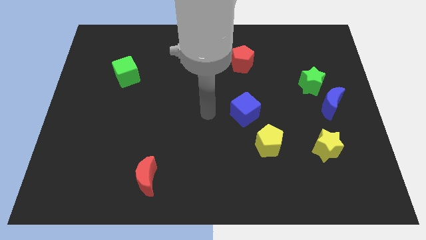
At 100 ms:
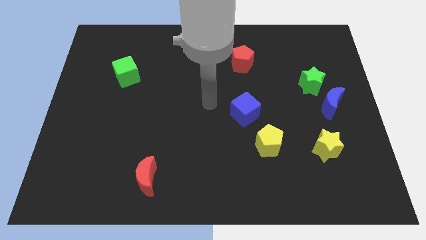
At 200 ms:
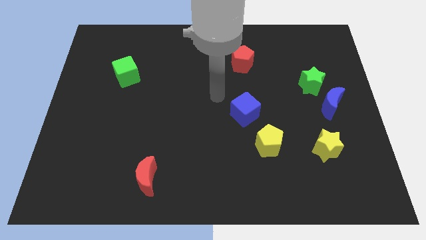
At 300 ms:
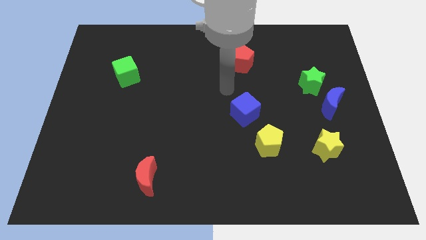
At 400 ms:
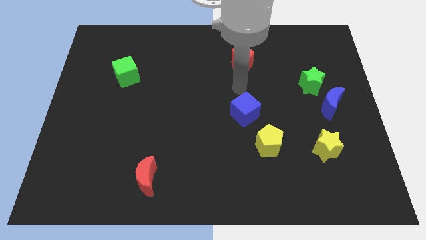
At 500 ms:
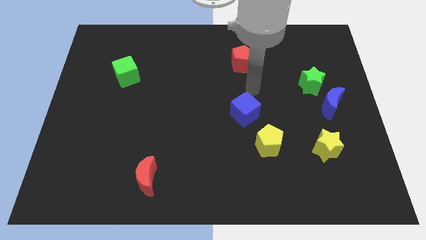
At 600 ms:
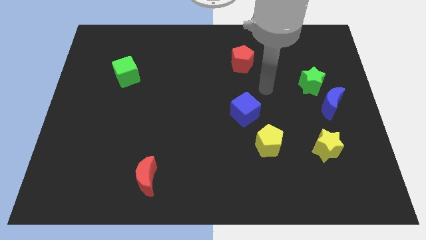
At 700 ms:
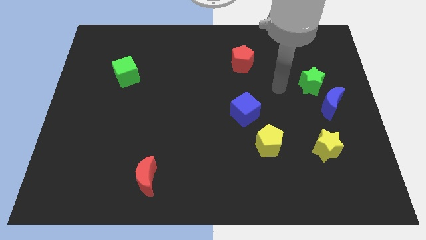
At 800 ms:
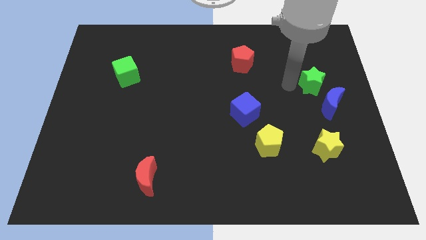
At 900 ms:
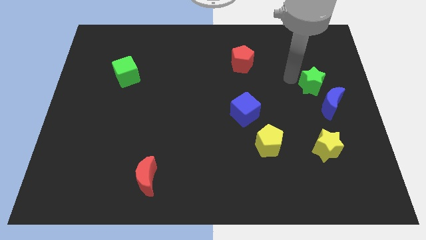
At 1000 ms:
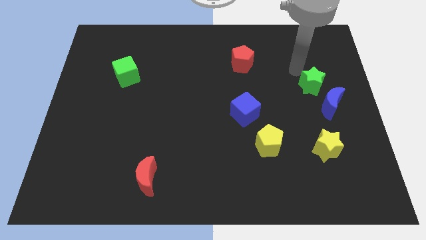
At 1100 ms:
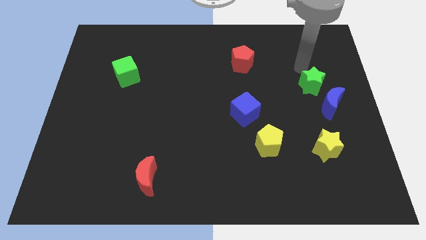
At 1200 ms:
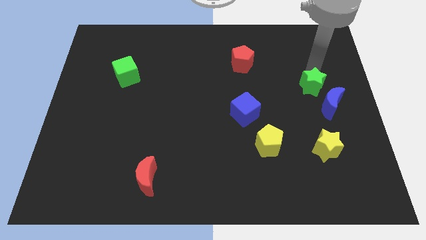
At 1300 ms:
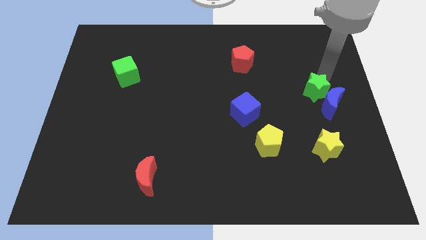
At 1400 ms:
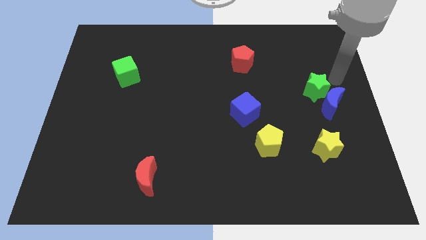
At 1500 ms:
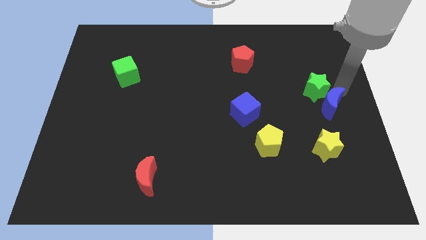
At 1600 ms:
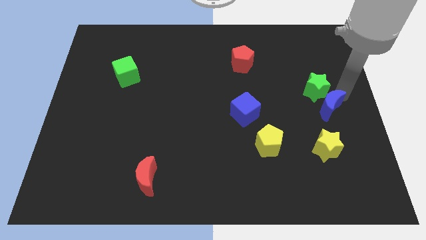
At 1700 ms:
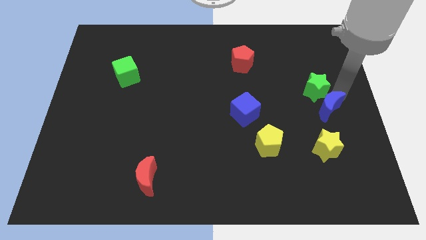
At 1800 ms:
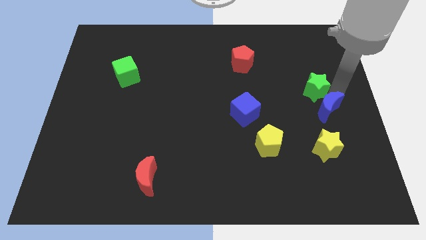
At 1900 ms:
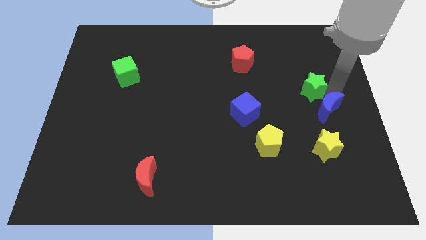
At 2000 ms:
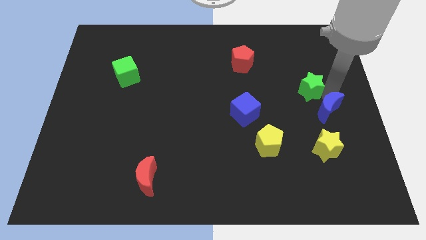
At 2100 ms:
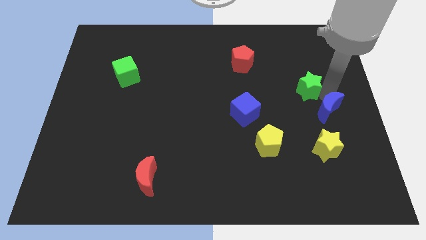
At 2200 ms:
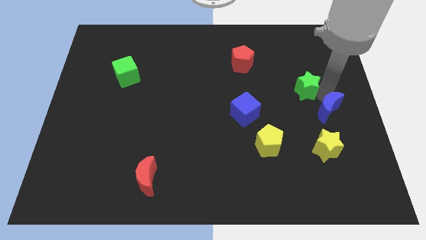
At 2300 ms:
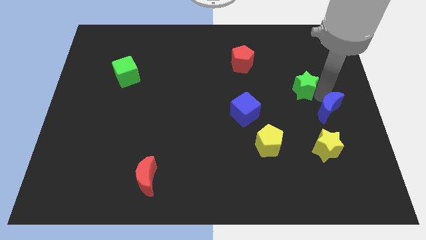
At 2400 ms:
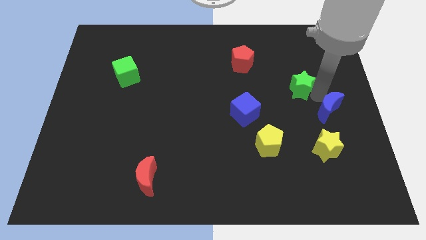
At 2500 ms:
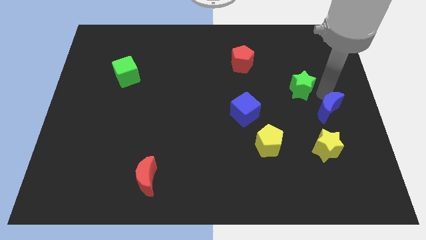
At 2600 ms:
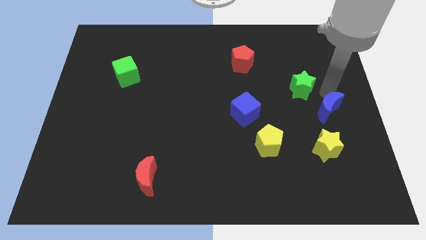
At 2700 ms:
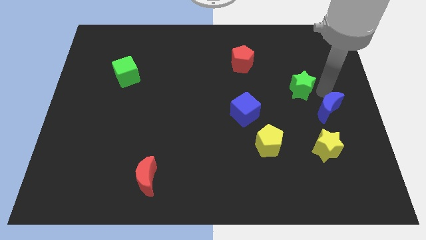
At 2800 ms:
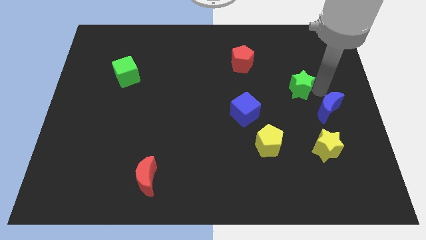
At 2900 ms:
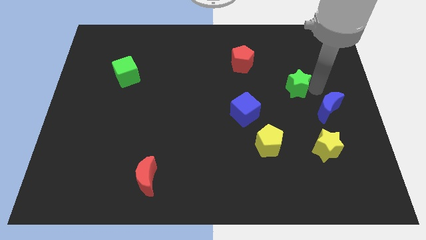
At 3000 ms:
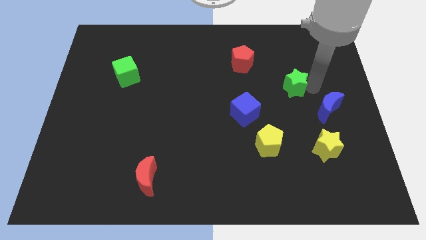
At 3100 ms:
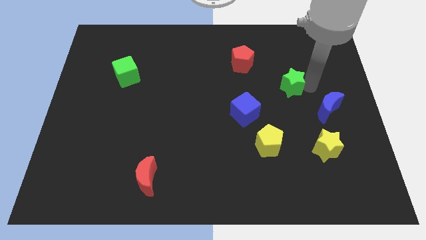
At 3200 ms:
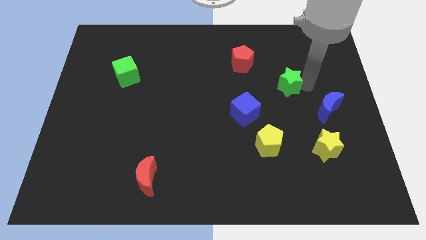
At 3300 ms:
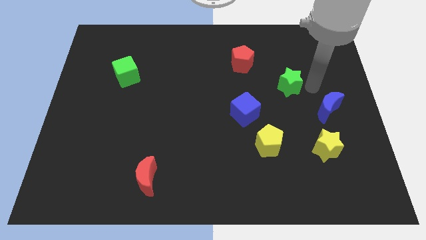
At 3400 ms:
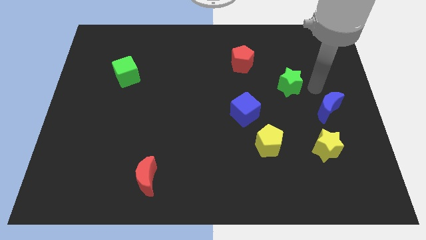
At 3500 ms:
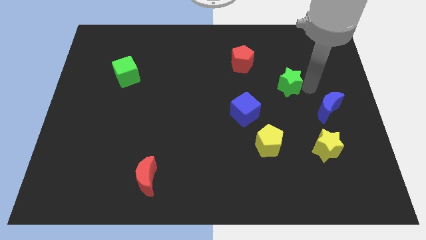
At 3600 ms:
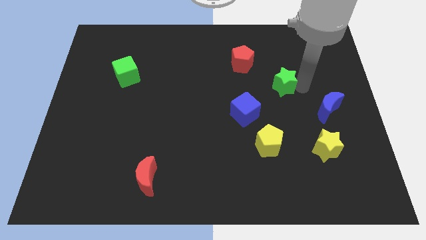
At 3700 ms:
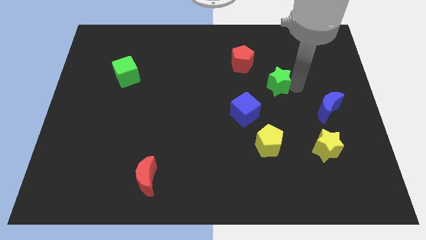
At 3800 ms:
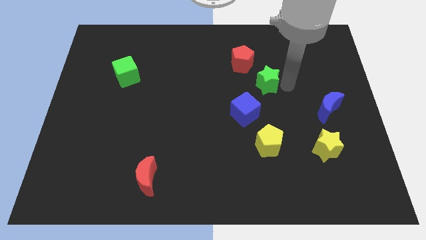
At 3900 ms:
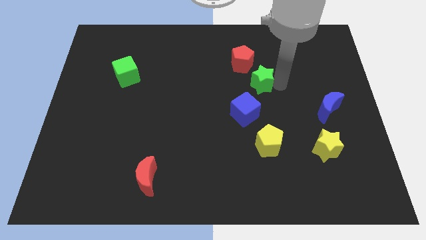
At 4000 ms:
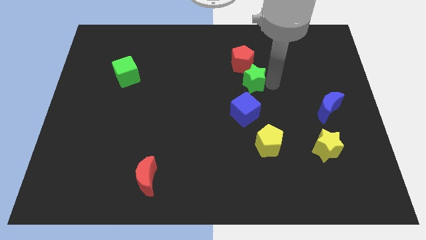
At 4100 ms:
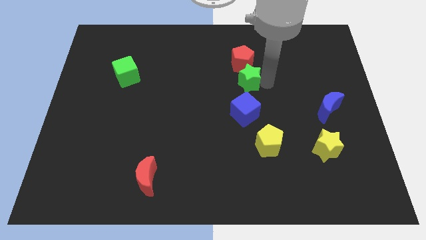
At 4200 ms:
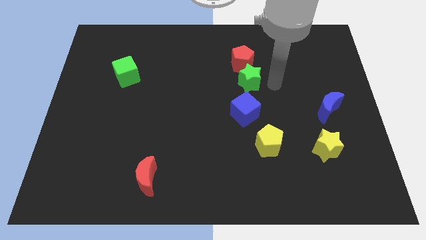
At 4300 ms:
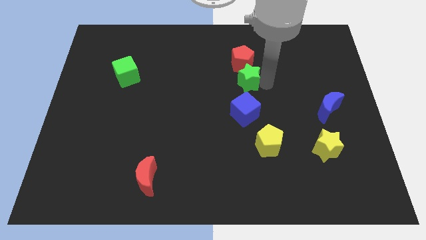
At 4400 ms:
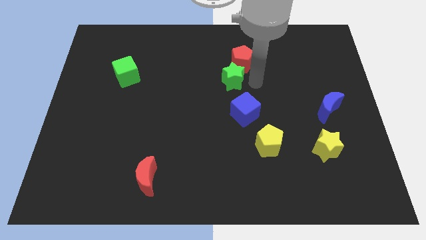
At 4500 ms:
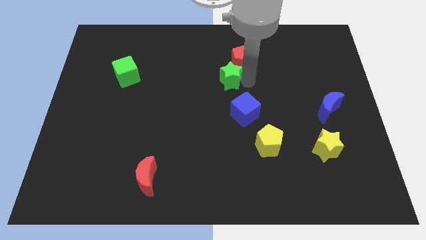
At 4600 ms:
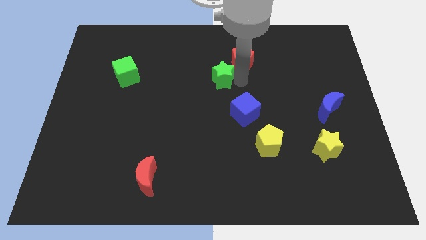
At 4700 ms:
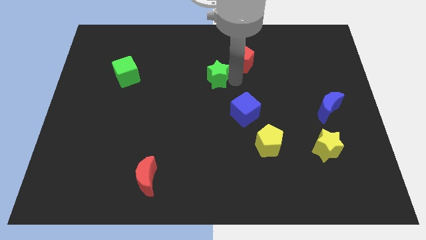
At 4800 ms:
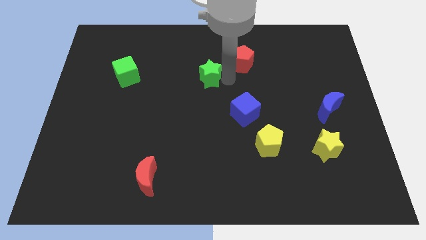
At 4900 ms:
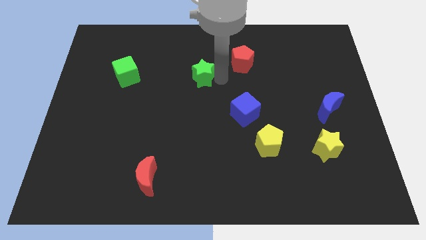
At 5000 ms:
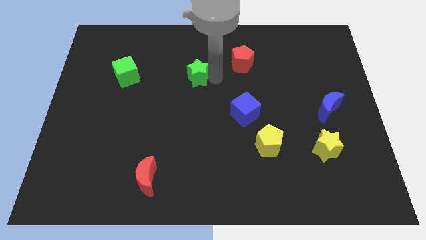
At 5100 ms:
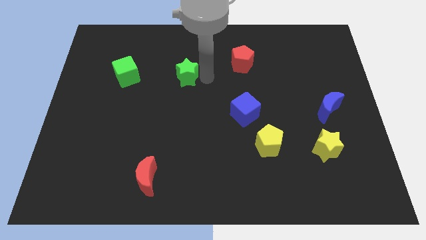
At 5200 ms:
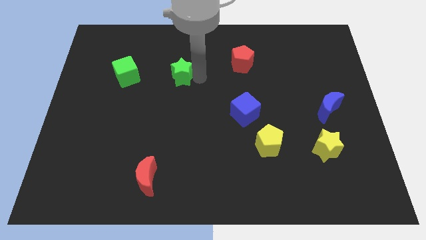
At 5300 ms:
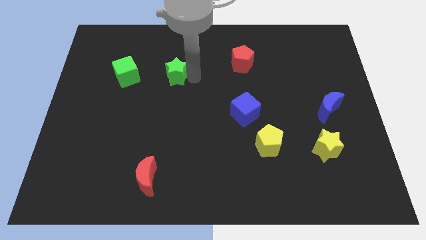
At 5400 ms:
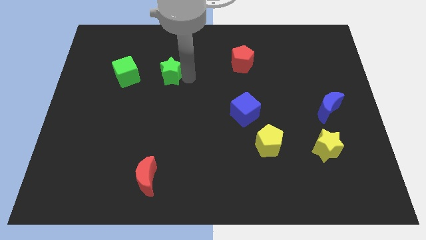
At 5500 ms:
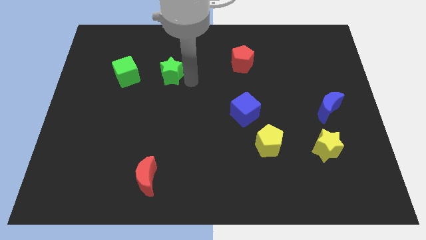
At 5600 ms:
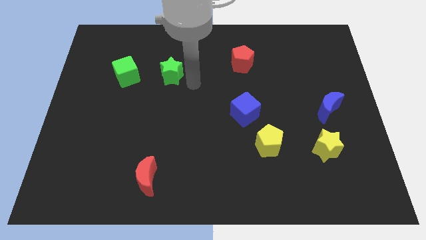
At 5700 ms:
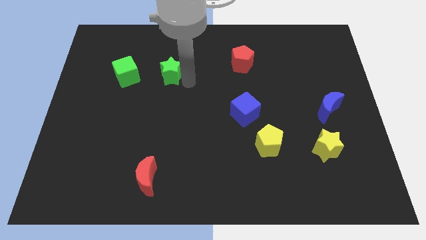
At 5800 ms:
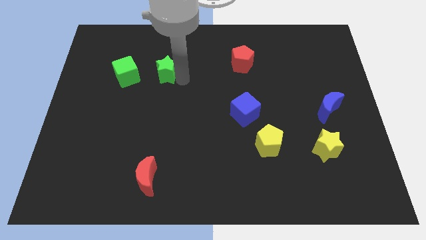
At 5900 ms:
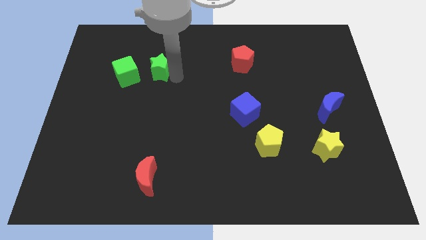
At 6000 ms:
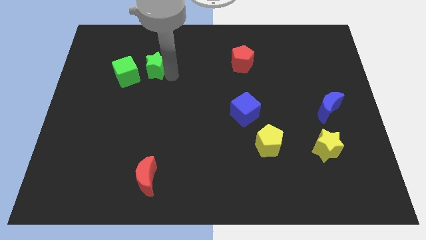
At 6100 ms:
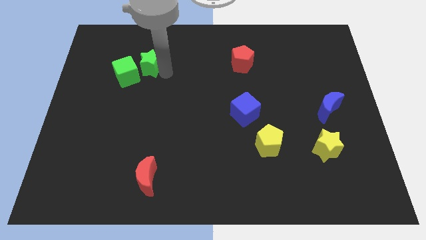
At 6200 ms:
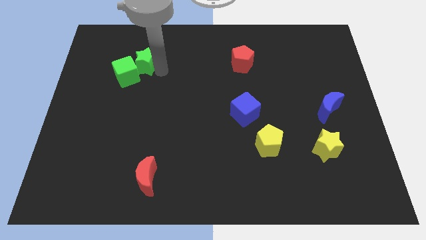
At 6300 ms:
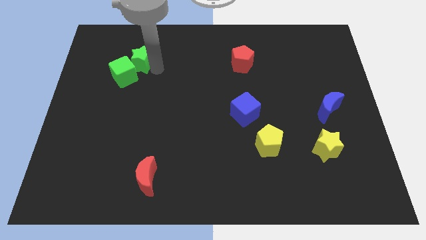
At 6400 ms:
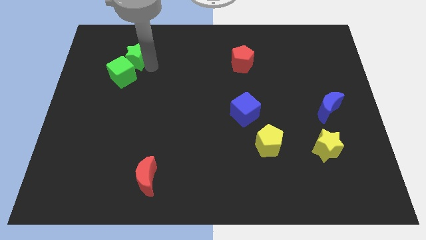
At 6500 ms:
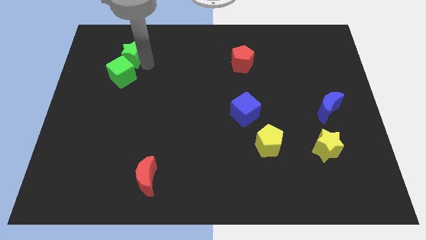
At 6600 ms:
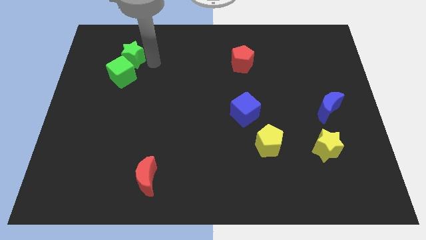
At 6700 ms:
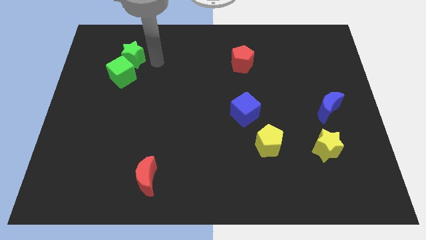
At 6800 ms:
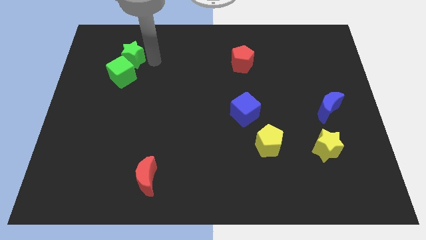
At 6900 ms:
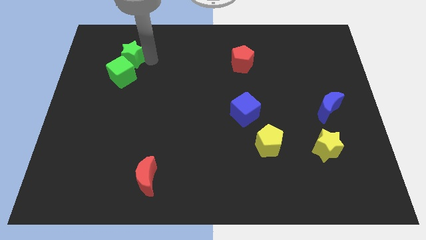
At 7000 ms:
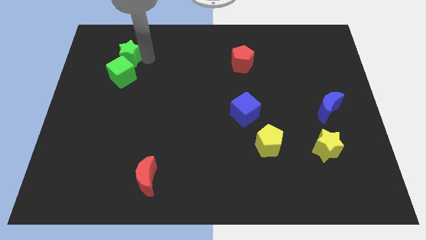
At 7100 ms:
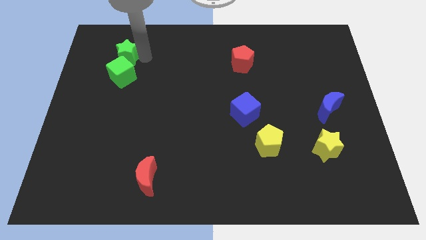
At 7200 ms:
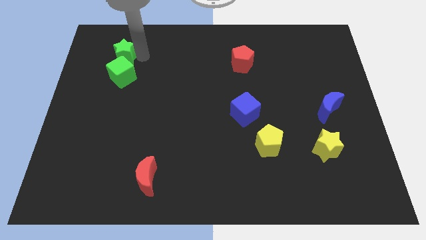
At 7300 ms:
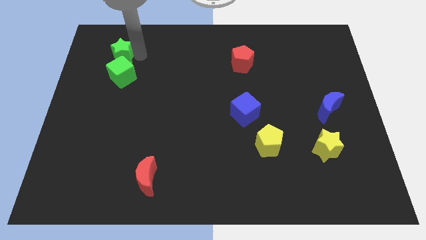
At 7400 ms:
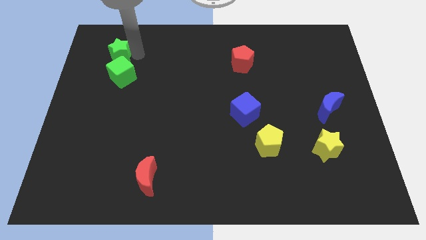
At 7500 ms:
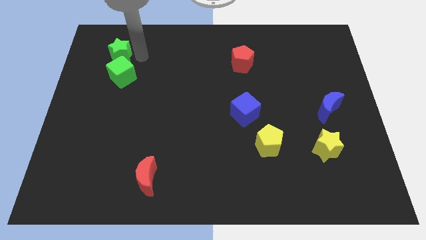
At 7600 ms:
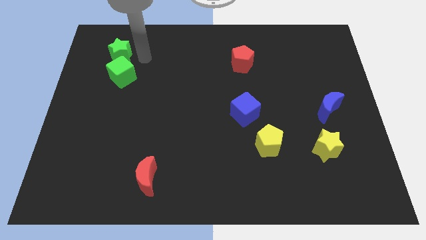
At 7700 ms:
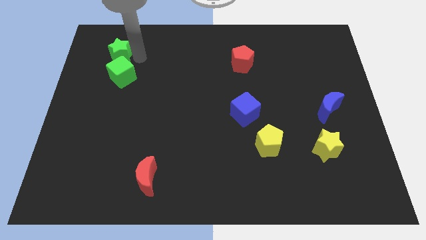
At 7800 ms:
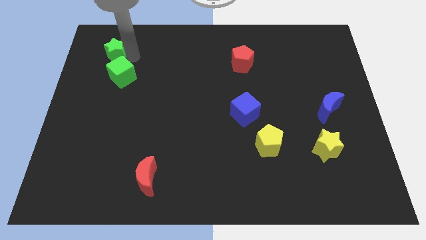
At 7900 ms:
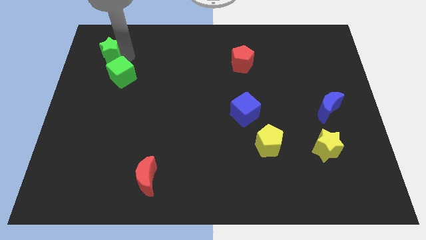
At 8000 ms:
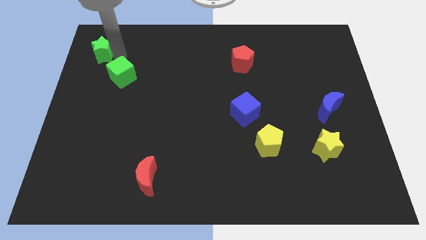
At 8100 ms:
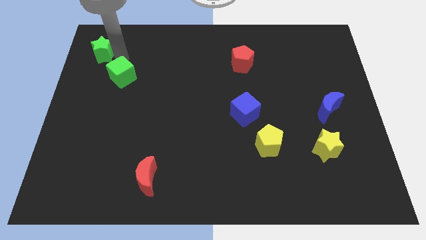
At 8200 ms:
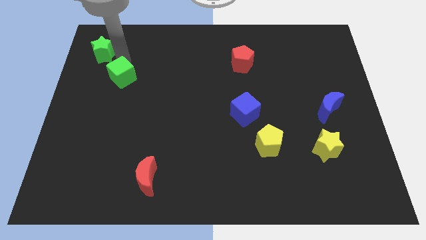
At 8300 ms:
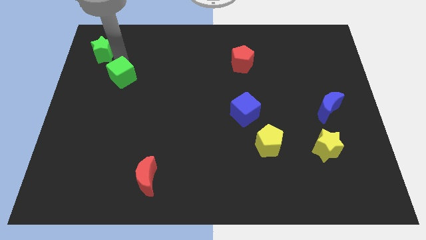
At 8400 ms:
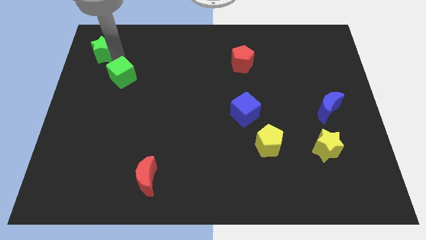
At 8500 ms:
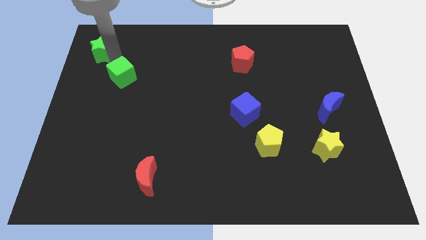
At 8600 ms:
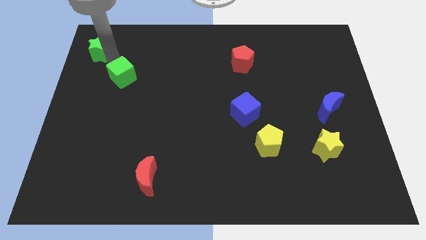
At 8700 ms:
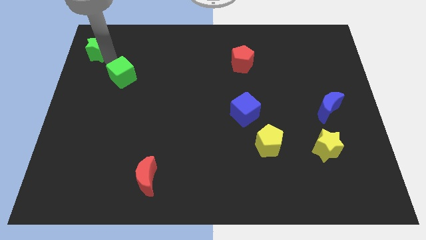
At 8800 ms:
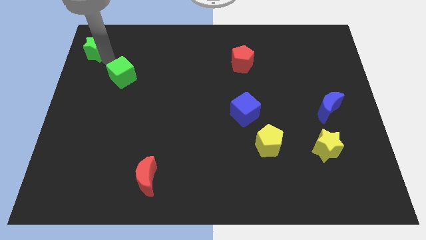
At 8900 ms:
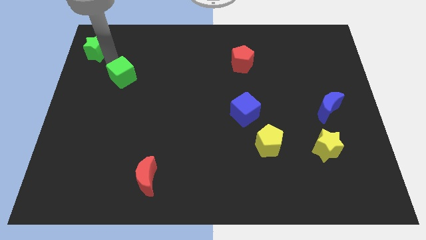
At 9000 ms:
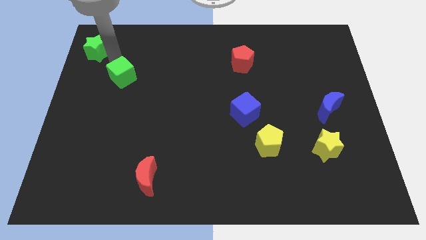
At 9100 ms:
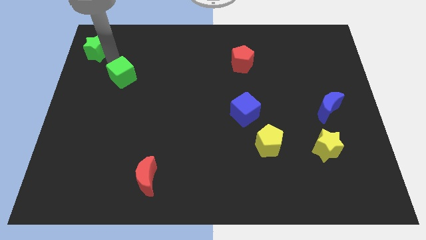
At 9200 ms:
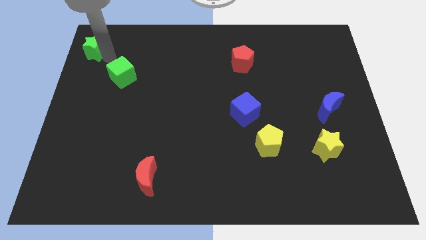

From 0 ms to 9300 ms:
put the green star to the top left of the board
